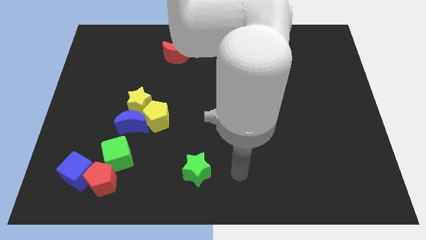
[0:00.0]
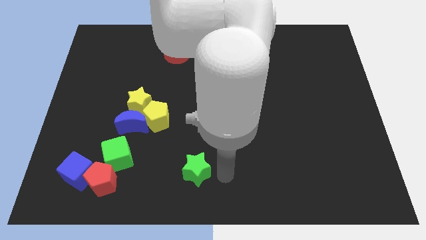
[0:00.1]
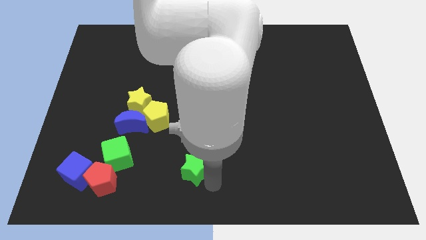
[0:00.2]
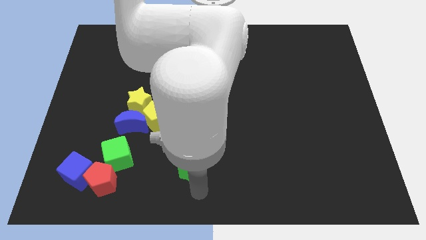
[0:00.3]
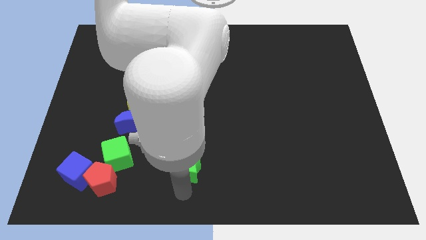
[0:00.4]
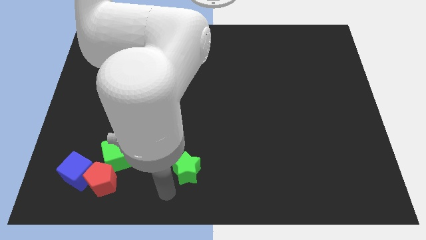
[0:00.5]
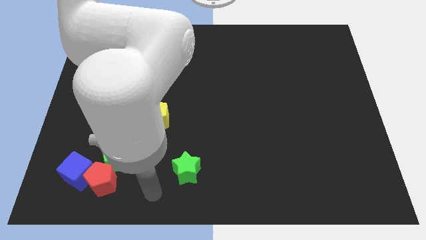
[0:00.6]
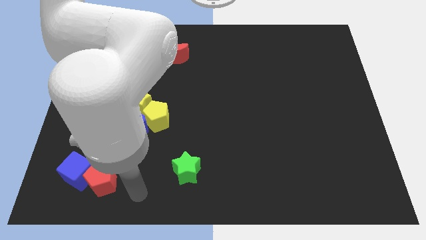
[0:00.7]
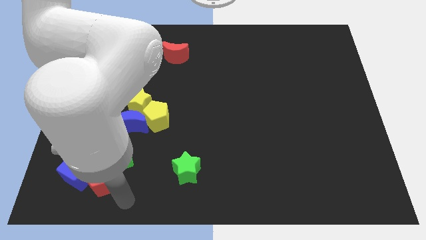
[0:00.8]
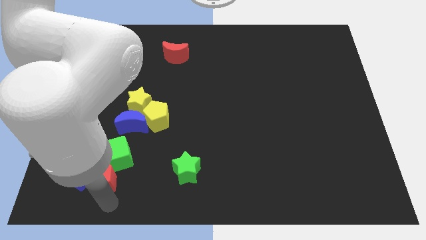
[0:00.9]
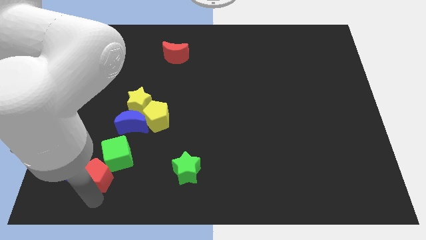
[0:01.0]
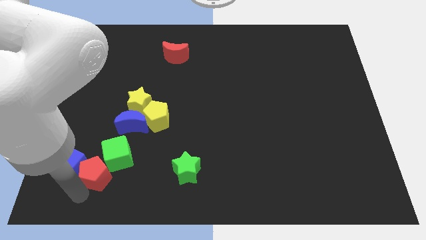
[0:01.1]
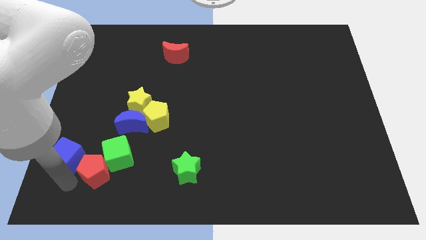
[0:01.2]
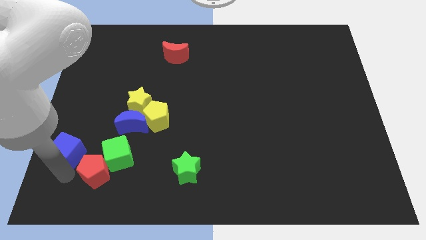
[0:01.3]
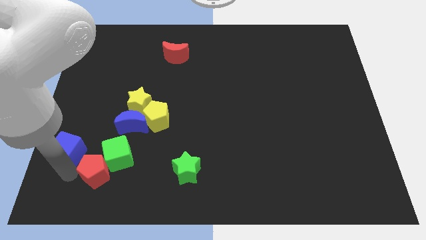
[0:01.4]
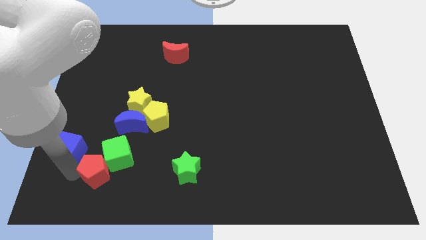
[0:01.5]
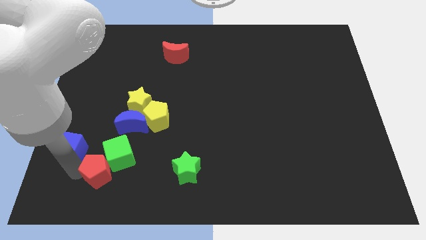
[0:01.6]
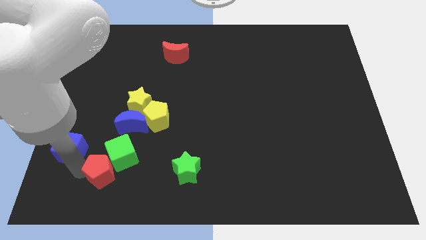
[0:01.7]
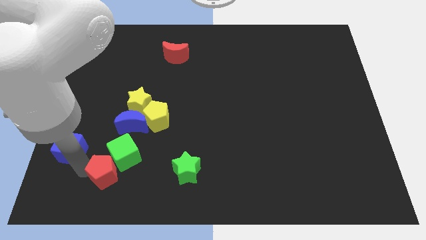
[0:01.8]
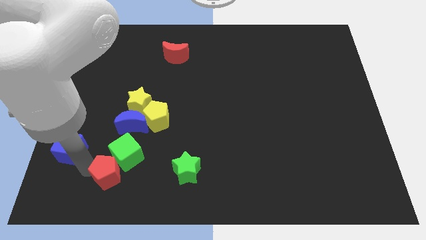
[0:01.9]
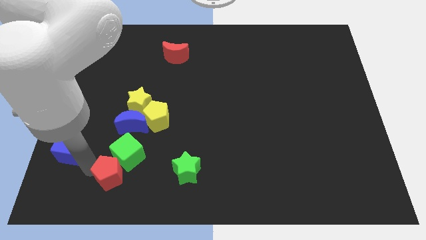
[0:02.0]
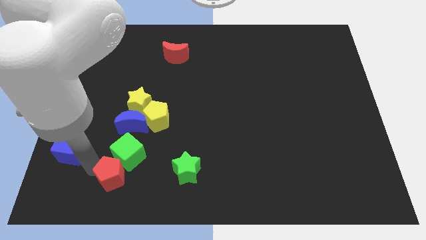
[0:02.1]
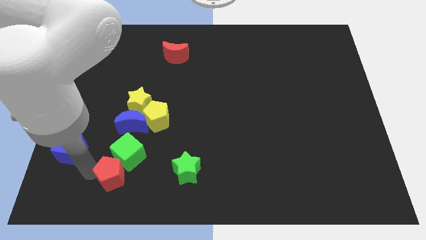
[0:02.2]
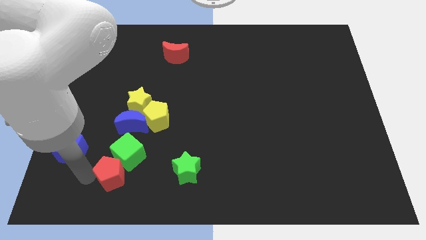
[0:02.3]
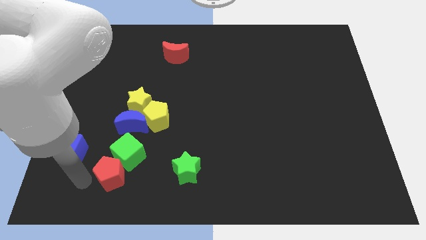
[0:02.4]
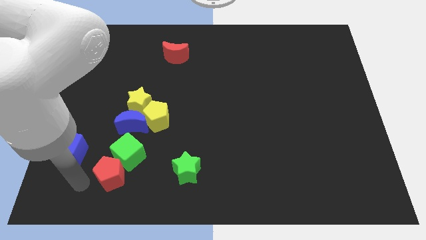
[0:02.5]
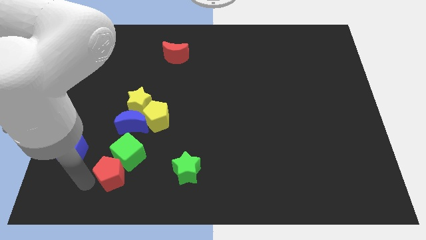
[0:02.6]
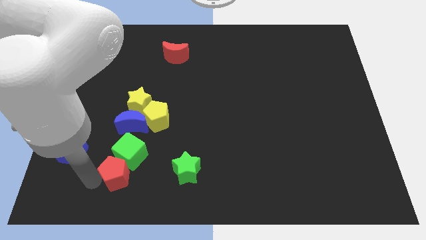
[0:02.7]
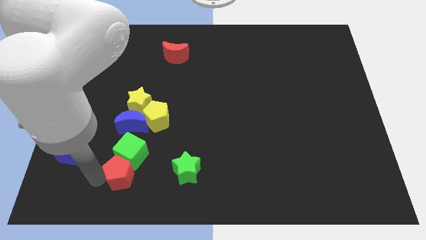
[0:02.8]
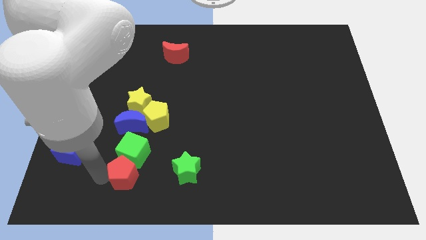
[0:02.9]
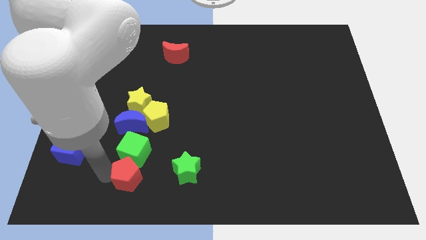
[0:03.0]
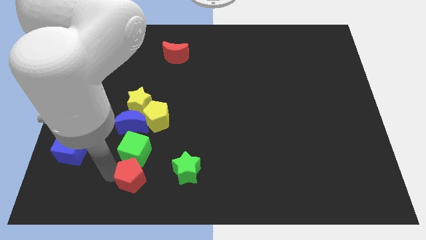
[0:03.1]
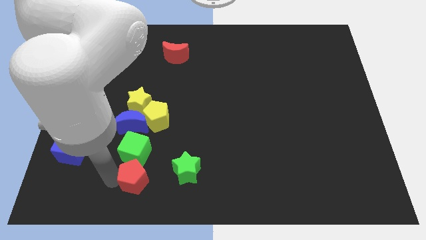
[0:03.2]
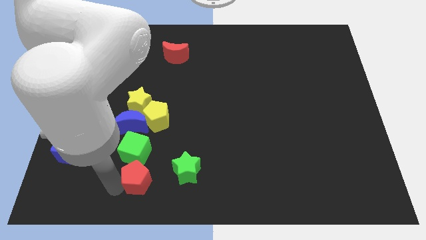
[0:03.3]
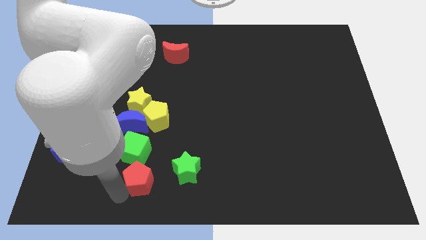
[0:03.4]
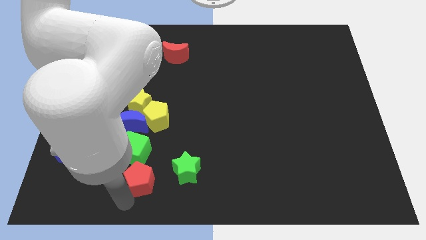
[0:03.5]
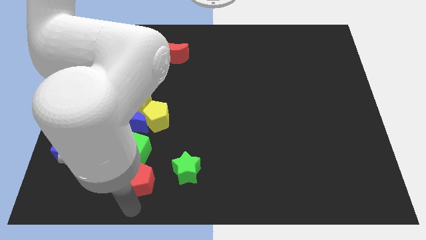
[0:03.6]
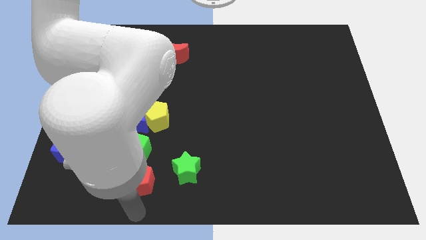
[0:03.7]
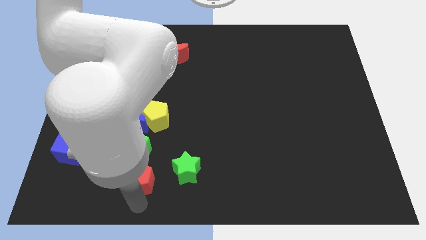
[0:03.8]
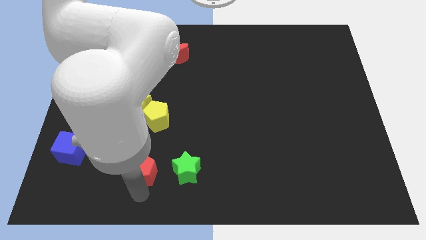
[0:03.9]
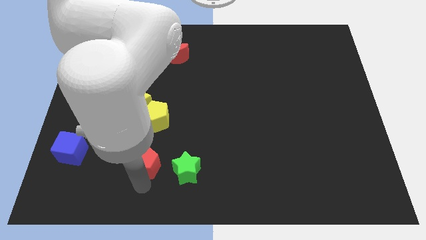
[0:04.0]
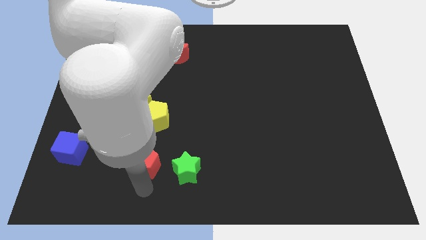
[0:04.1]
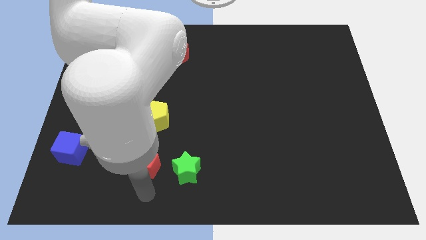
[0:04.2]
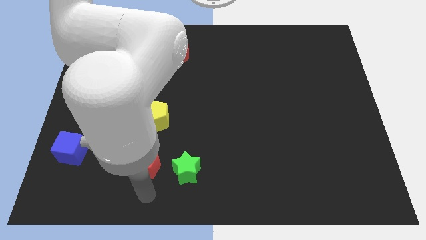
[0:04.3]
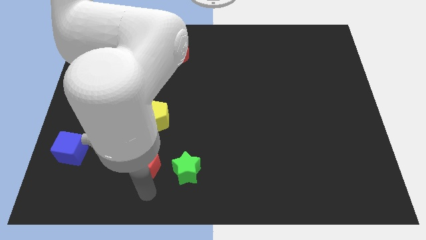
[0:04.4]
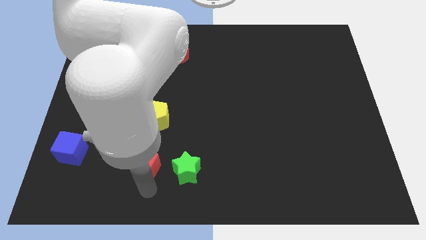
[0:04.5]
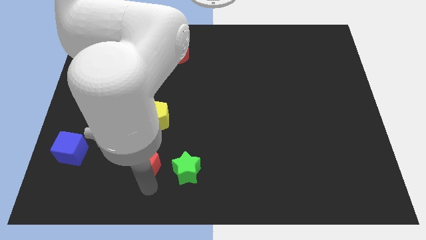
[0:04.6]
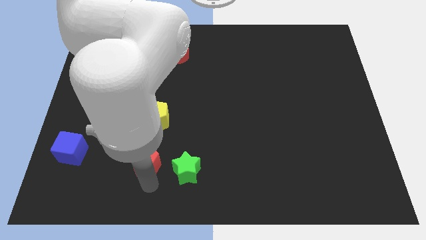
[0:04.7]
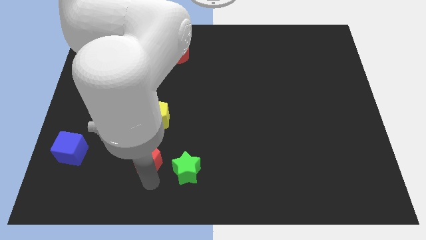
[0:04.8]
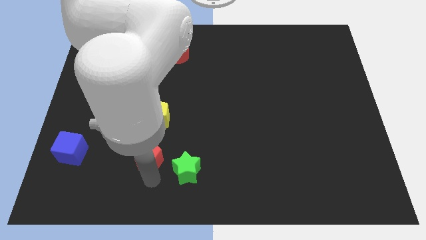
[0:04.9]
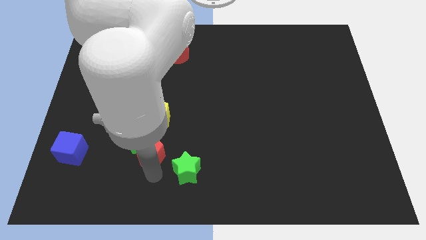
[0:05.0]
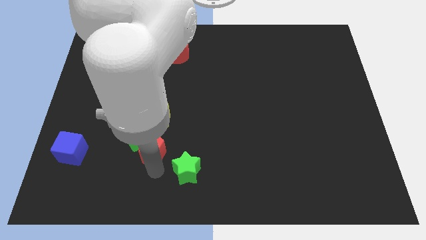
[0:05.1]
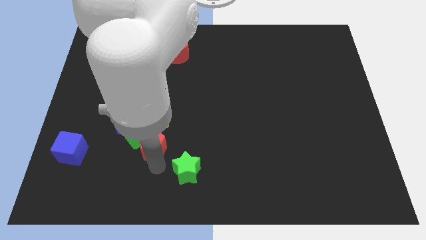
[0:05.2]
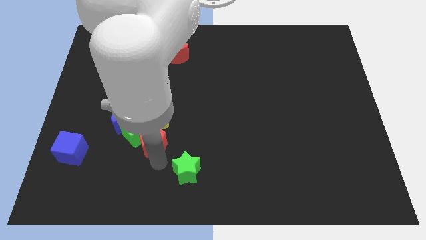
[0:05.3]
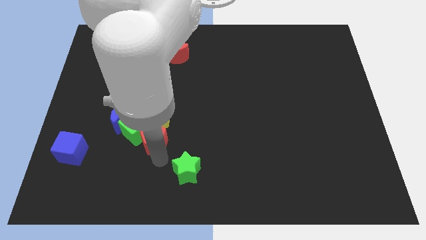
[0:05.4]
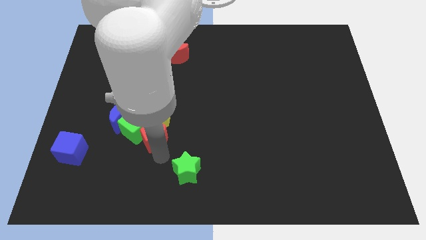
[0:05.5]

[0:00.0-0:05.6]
slide the red pentagon close to the yellow pentagon

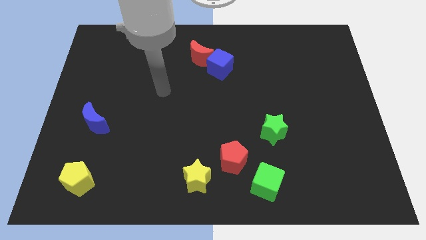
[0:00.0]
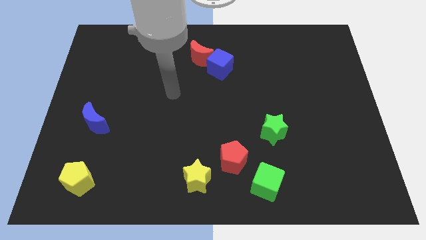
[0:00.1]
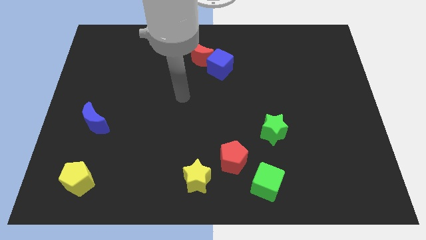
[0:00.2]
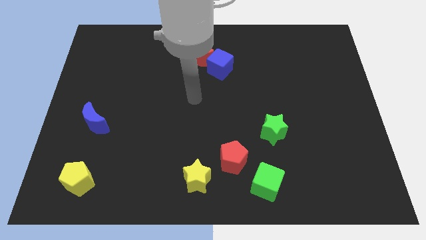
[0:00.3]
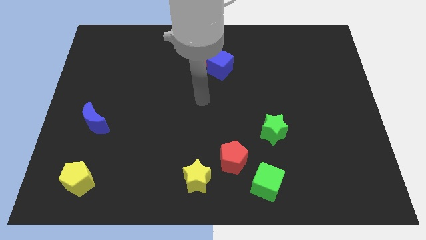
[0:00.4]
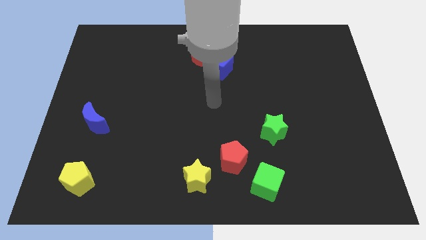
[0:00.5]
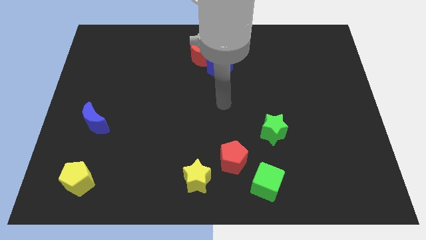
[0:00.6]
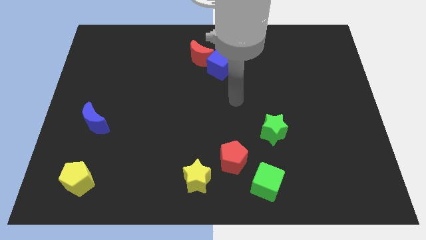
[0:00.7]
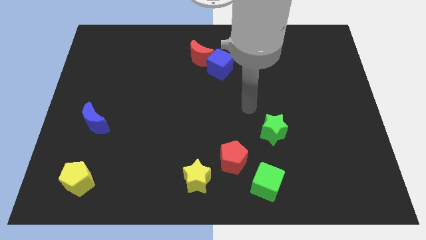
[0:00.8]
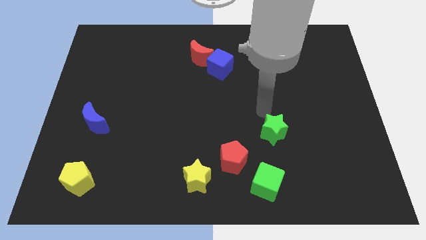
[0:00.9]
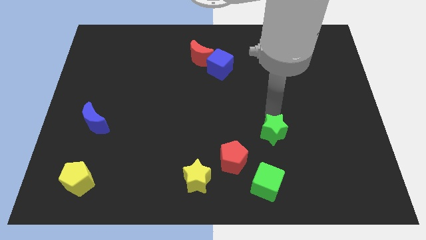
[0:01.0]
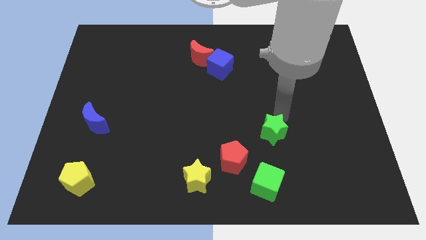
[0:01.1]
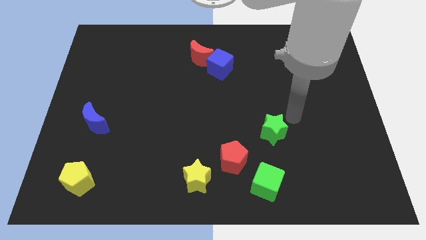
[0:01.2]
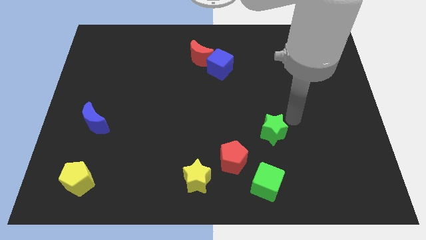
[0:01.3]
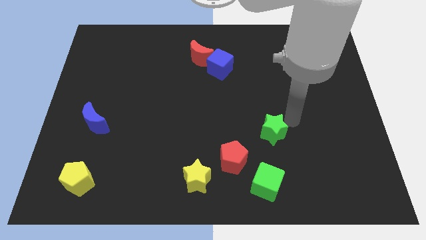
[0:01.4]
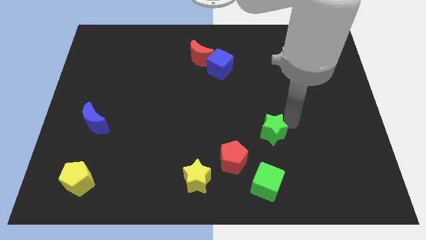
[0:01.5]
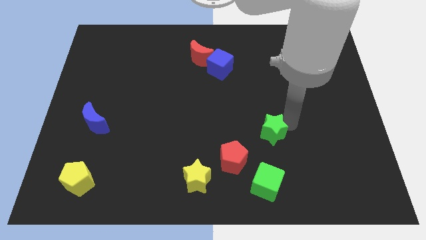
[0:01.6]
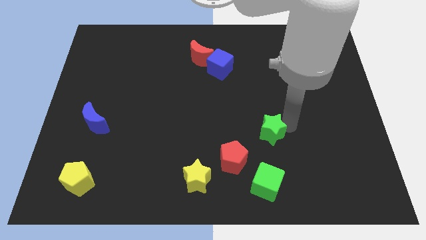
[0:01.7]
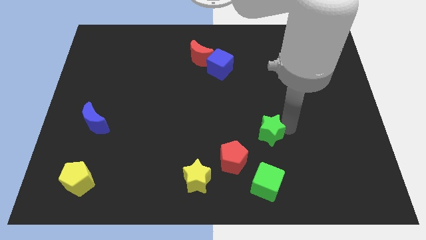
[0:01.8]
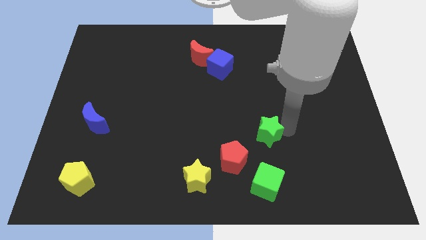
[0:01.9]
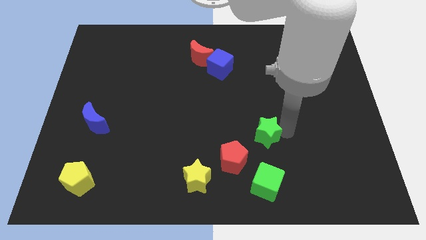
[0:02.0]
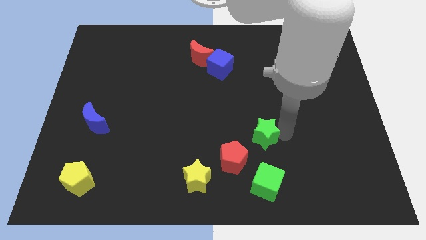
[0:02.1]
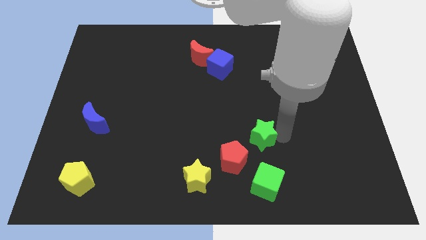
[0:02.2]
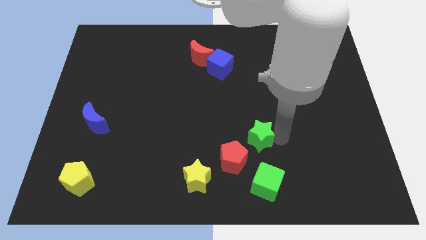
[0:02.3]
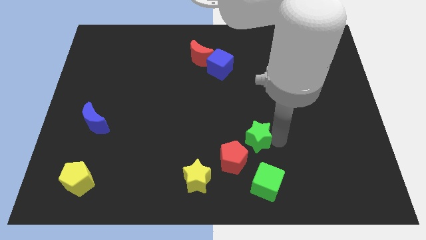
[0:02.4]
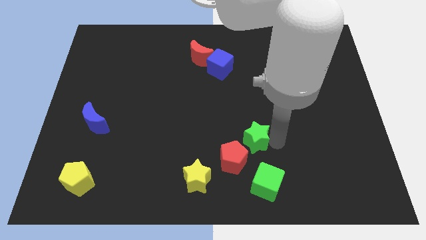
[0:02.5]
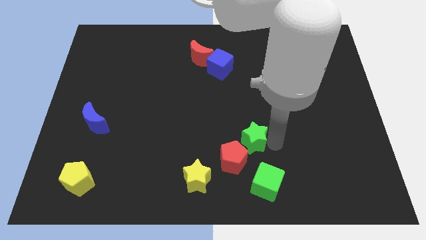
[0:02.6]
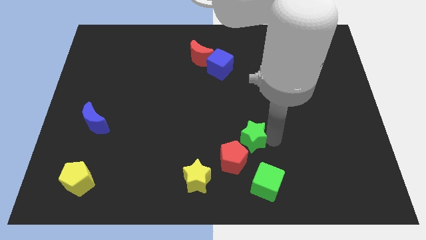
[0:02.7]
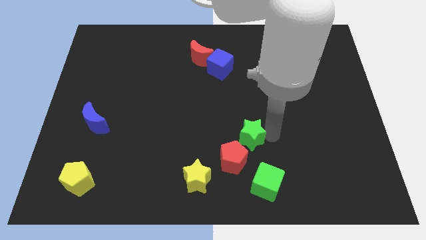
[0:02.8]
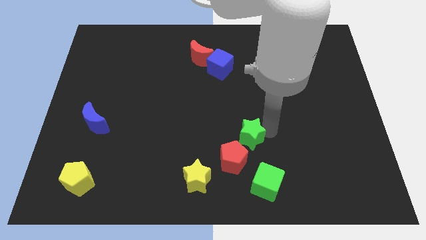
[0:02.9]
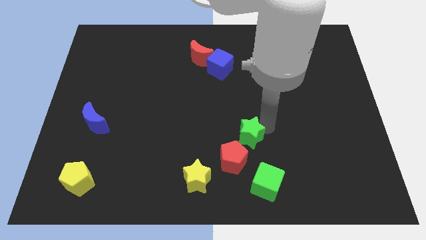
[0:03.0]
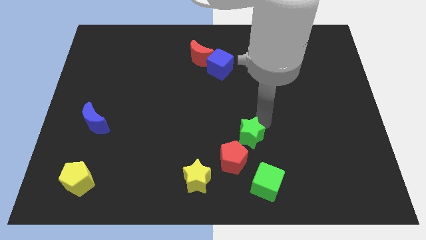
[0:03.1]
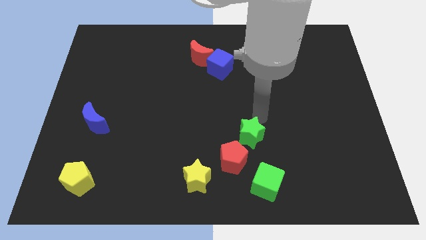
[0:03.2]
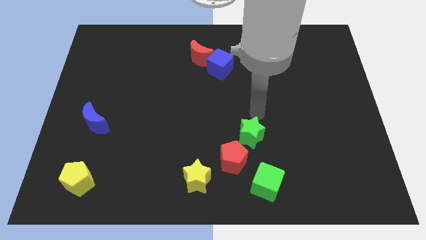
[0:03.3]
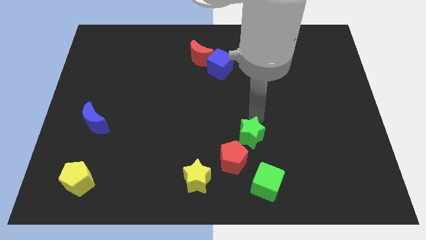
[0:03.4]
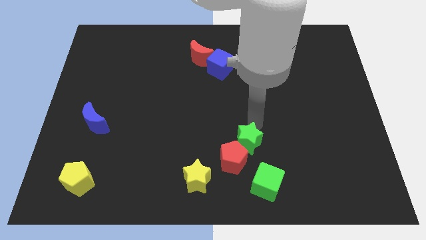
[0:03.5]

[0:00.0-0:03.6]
slide the green star next to the red pentagon
